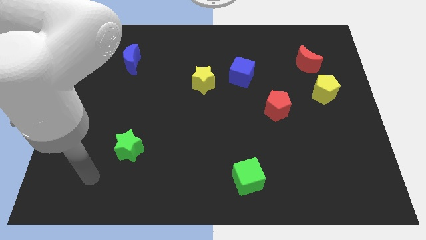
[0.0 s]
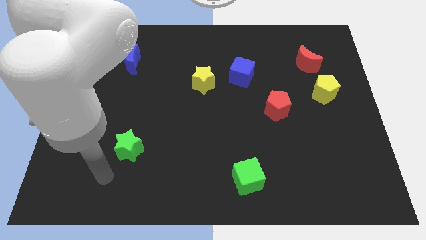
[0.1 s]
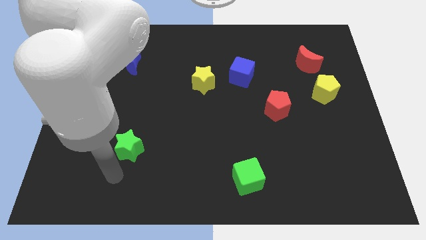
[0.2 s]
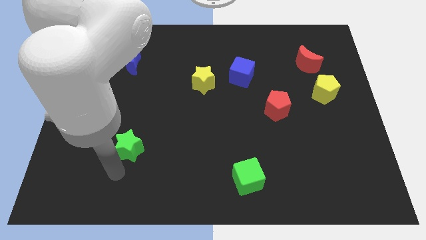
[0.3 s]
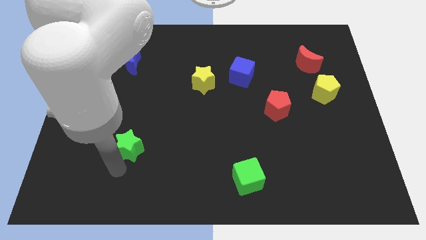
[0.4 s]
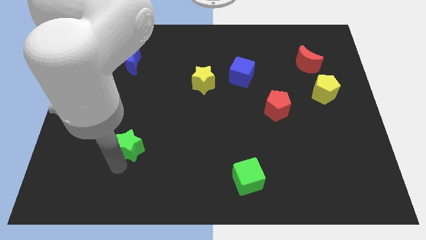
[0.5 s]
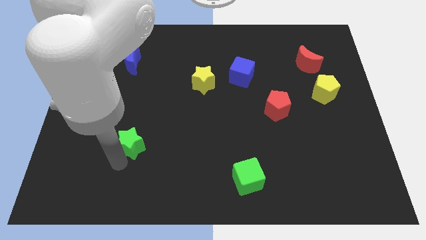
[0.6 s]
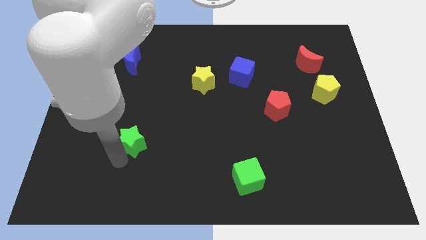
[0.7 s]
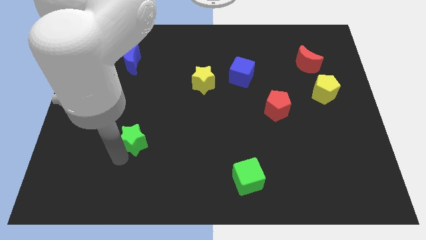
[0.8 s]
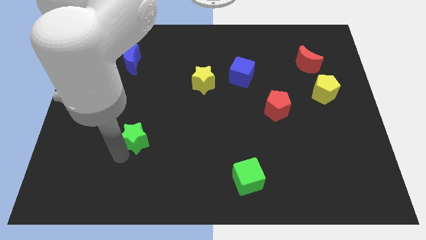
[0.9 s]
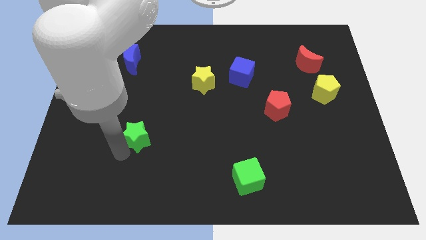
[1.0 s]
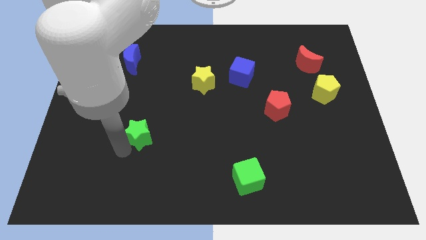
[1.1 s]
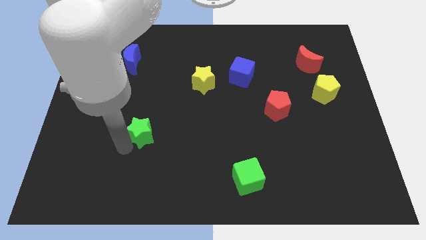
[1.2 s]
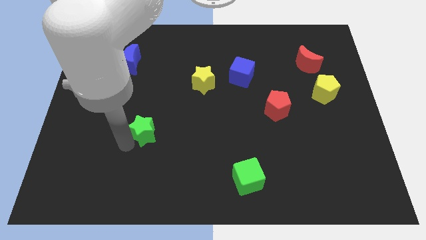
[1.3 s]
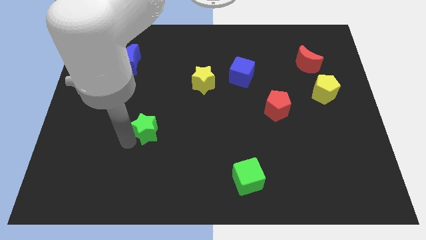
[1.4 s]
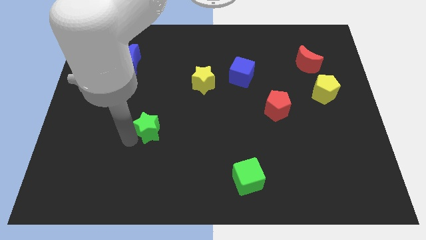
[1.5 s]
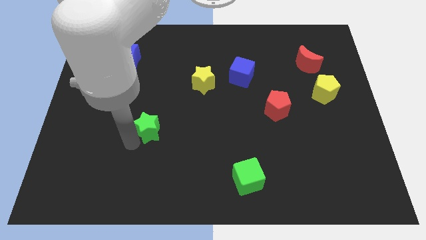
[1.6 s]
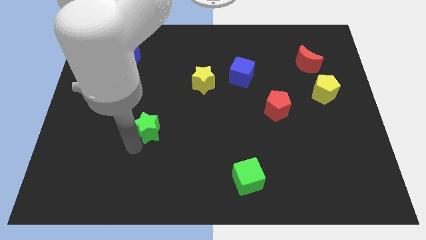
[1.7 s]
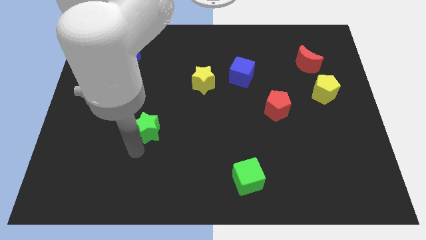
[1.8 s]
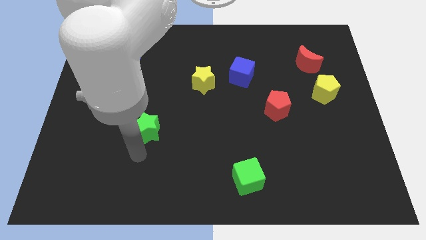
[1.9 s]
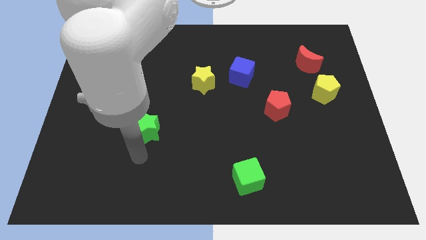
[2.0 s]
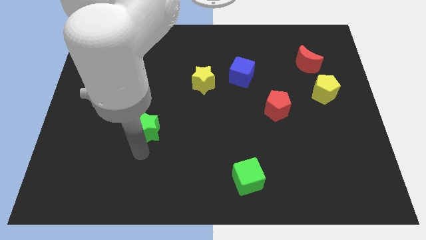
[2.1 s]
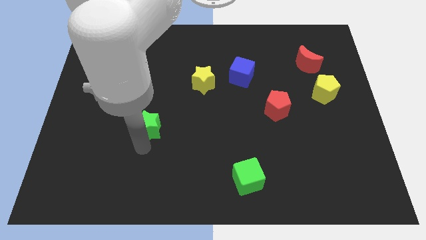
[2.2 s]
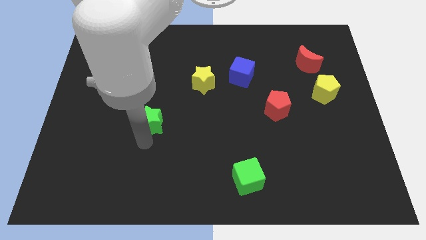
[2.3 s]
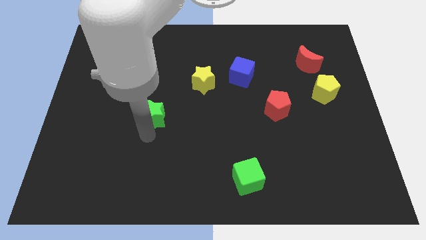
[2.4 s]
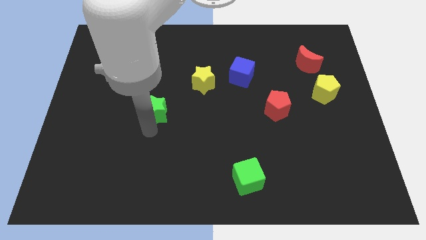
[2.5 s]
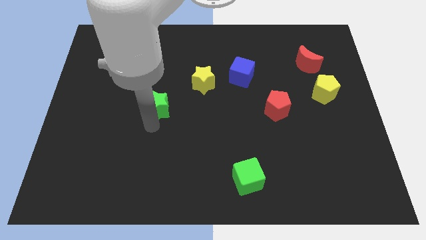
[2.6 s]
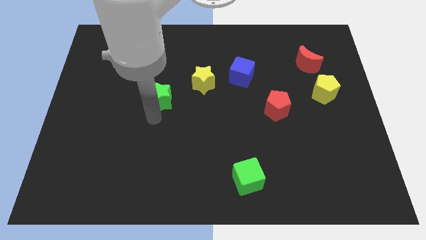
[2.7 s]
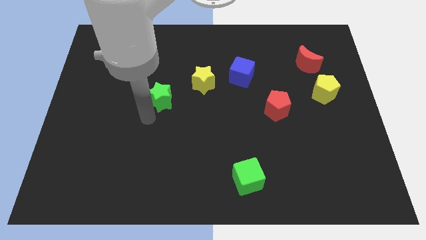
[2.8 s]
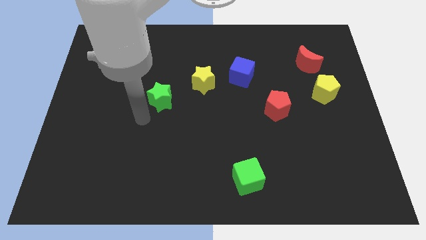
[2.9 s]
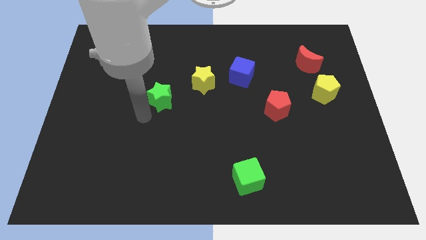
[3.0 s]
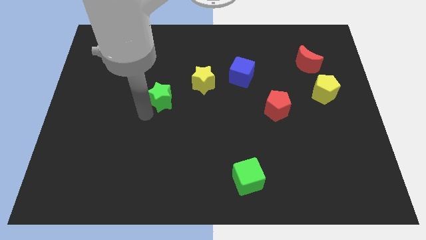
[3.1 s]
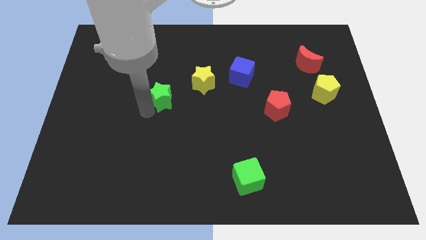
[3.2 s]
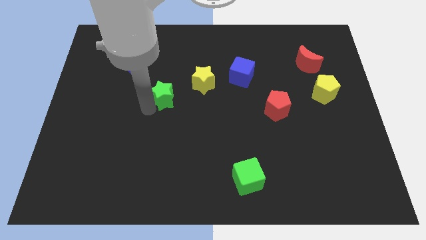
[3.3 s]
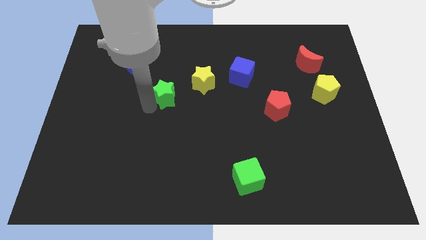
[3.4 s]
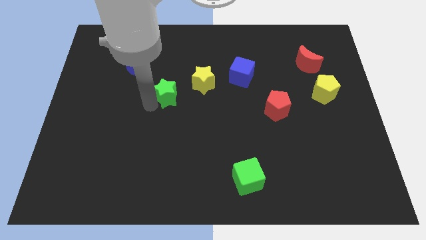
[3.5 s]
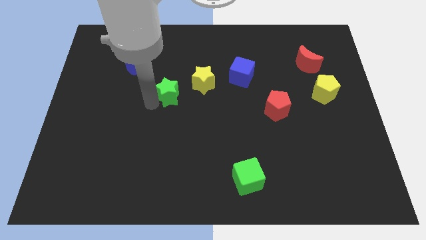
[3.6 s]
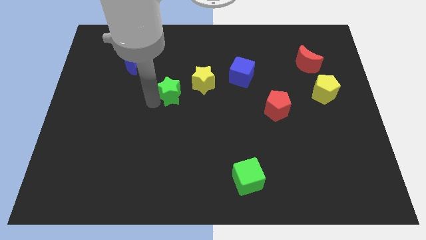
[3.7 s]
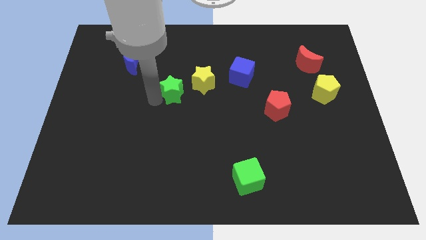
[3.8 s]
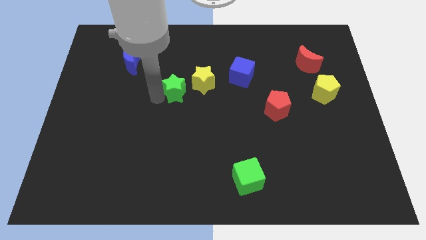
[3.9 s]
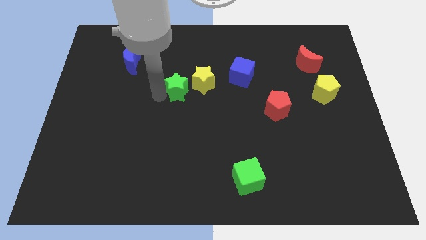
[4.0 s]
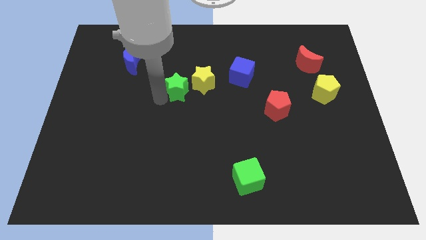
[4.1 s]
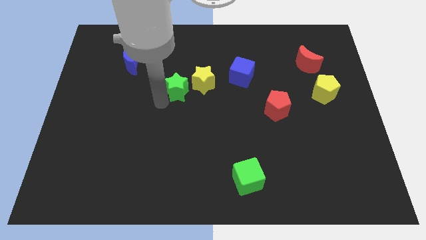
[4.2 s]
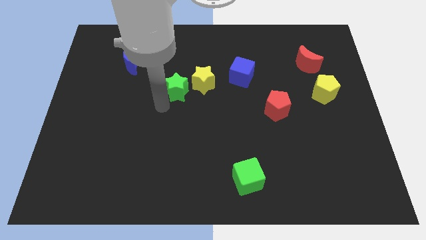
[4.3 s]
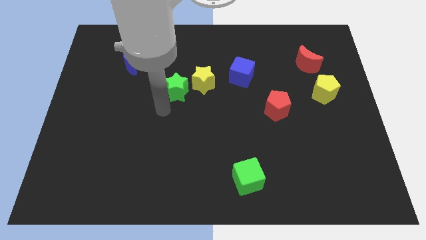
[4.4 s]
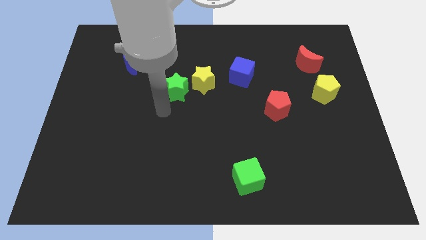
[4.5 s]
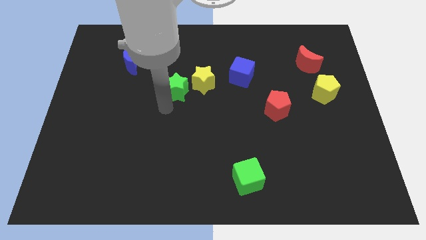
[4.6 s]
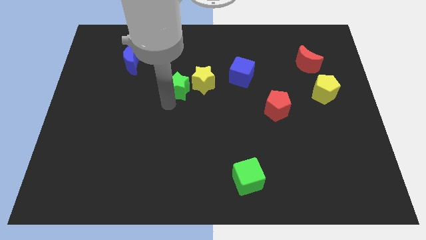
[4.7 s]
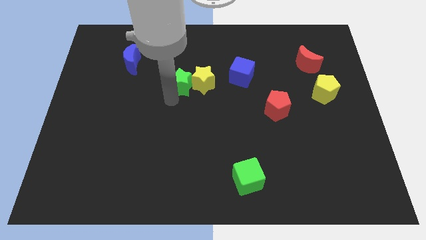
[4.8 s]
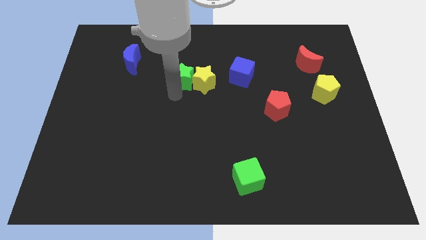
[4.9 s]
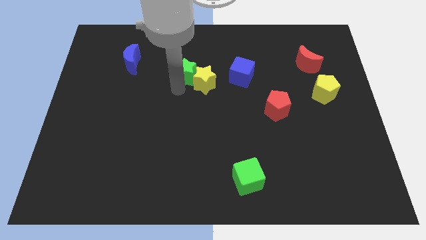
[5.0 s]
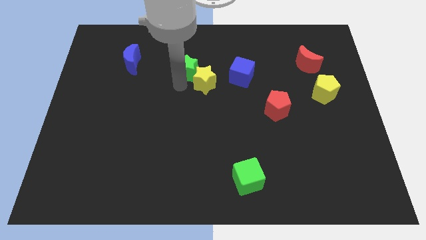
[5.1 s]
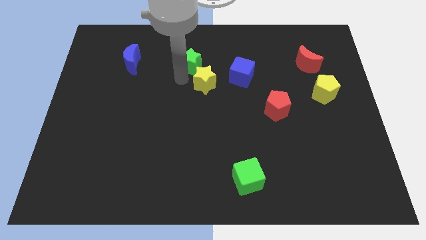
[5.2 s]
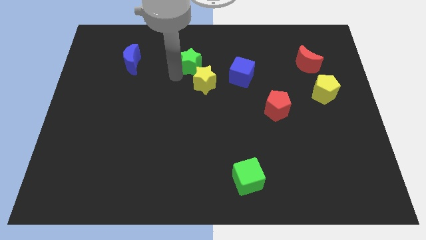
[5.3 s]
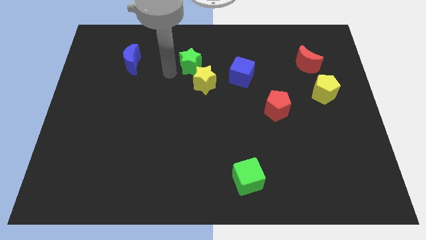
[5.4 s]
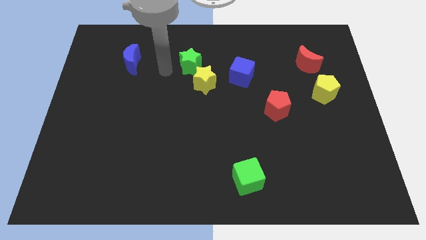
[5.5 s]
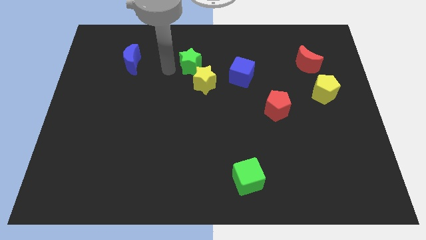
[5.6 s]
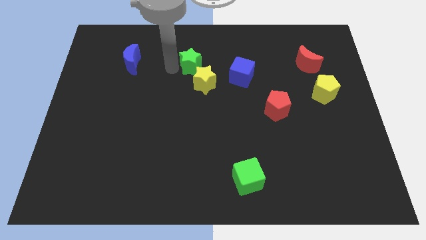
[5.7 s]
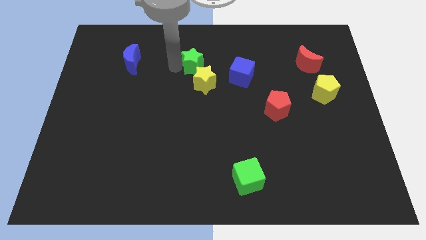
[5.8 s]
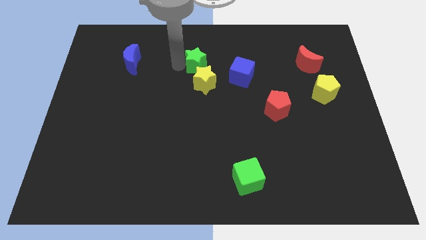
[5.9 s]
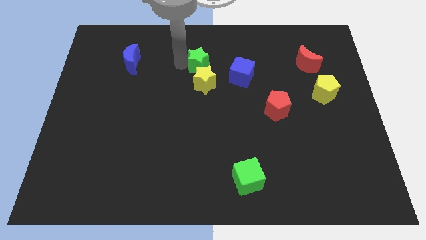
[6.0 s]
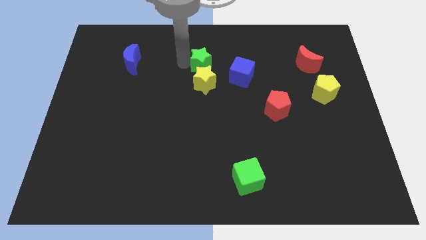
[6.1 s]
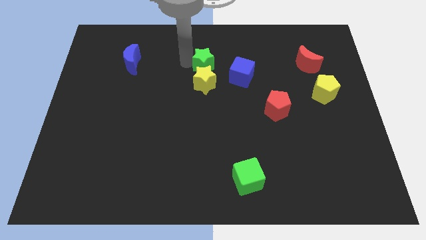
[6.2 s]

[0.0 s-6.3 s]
push the green star to the top left side of the blue cube
